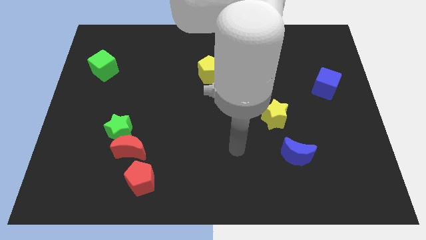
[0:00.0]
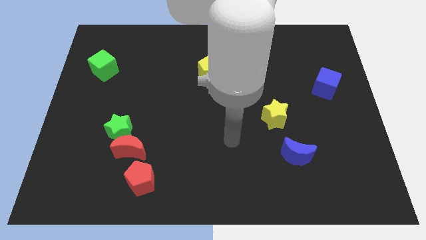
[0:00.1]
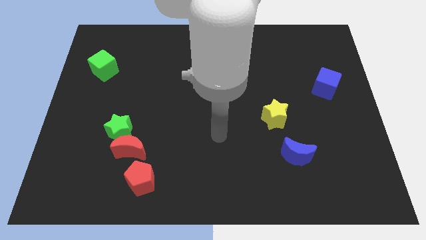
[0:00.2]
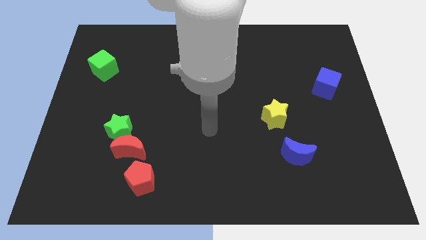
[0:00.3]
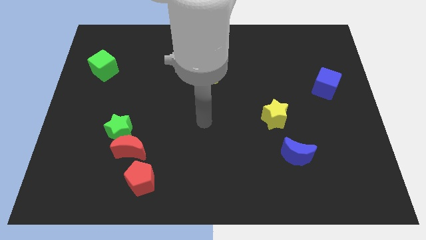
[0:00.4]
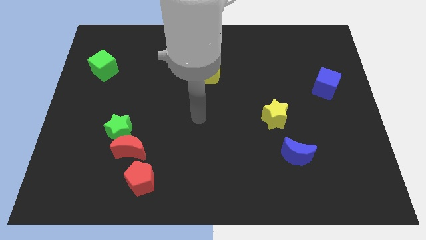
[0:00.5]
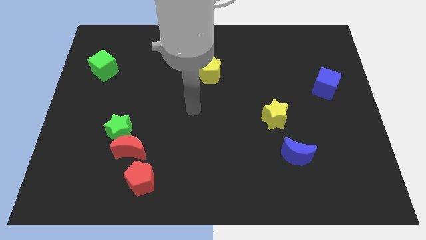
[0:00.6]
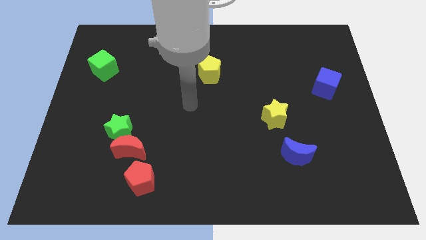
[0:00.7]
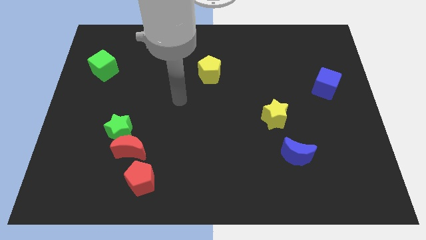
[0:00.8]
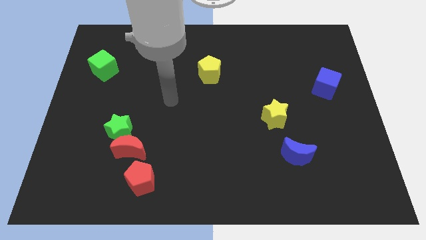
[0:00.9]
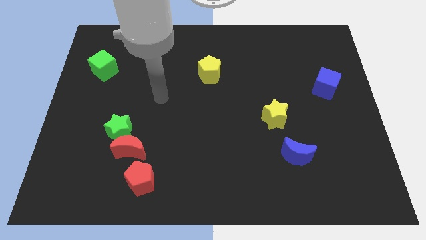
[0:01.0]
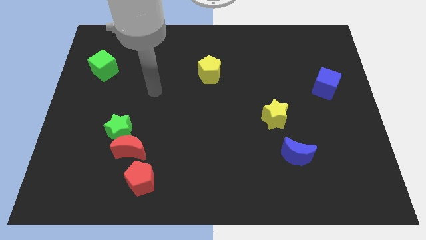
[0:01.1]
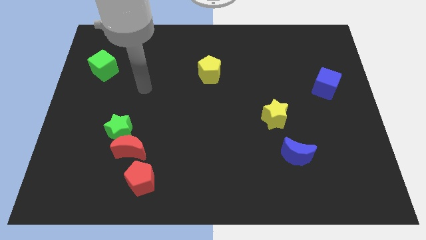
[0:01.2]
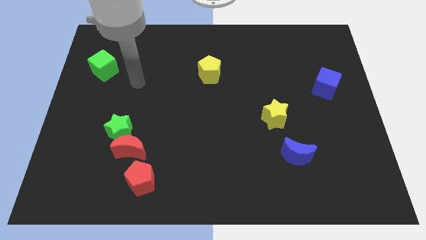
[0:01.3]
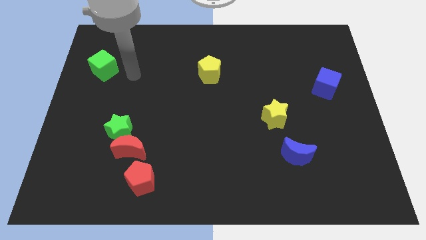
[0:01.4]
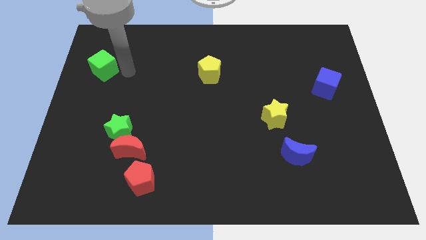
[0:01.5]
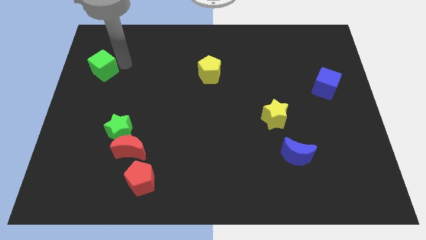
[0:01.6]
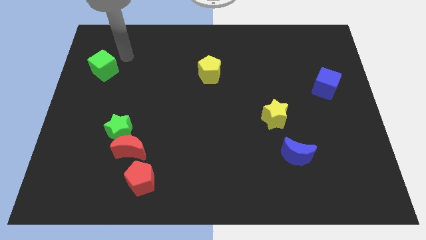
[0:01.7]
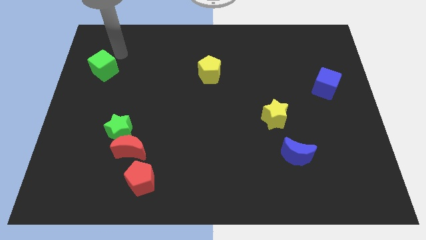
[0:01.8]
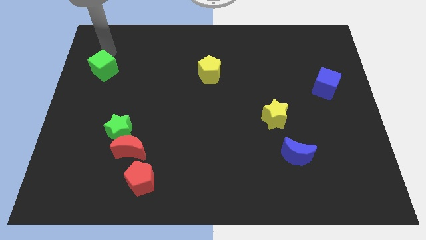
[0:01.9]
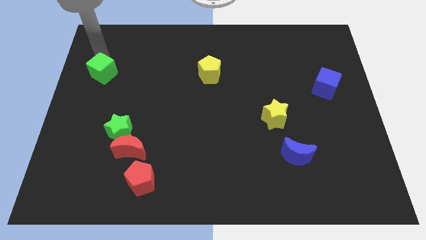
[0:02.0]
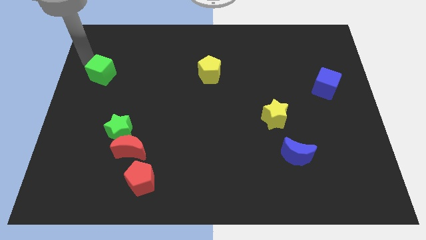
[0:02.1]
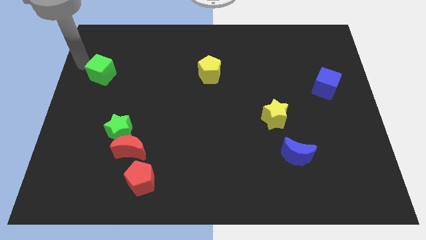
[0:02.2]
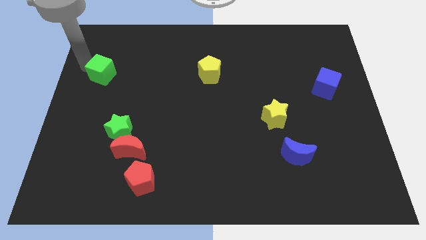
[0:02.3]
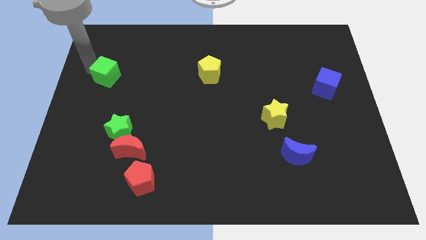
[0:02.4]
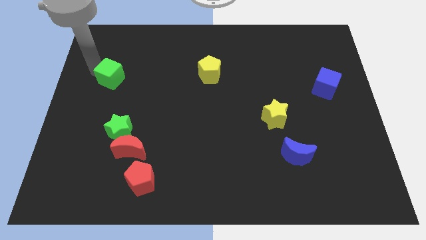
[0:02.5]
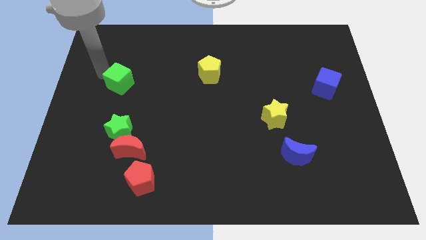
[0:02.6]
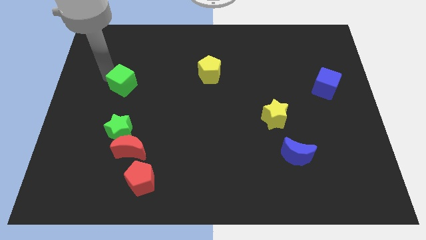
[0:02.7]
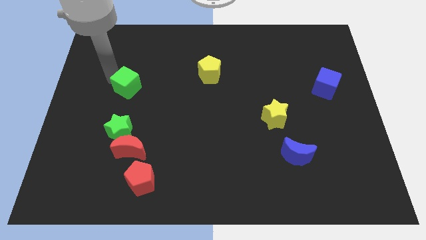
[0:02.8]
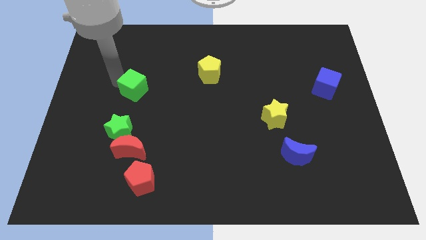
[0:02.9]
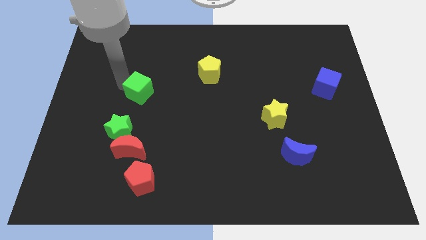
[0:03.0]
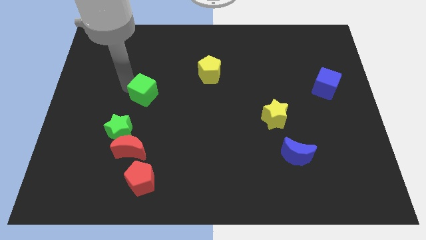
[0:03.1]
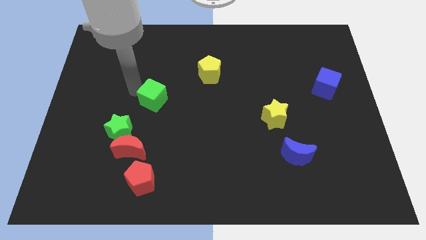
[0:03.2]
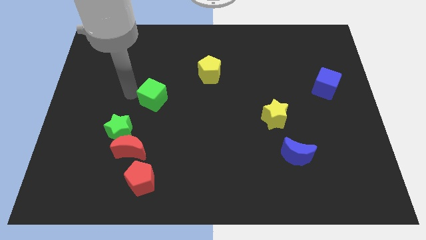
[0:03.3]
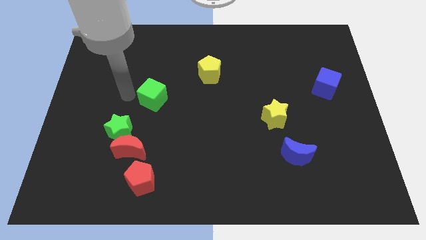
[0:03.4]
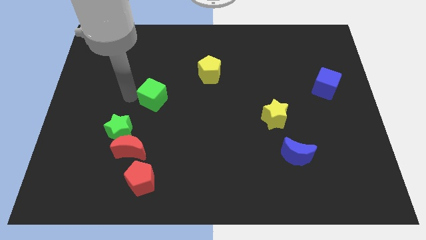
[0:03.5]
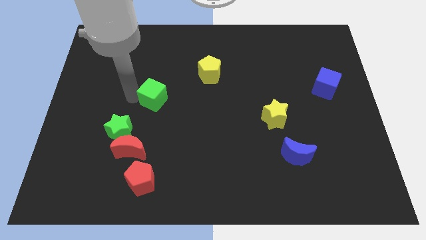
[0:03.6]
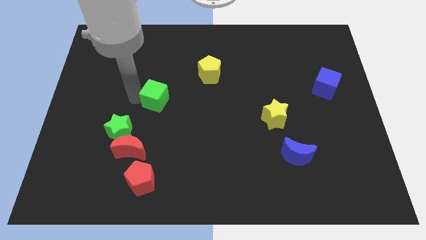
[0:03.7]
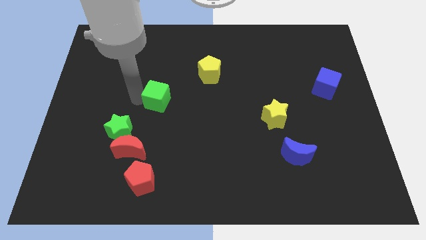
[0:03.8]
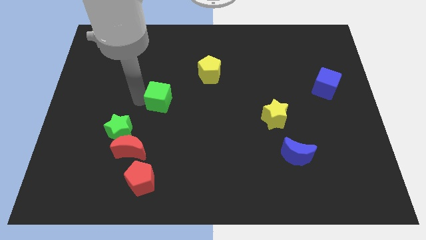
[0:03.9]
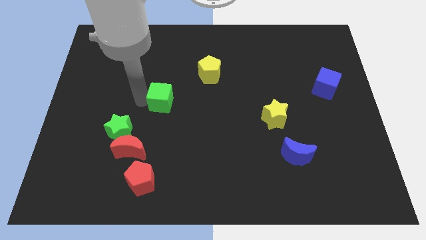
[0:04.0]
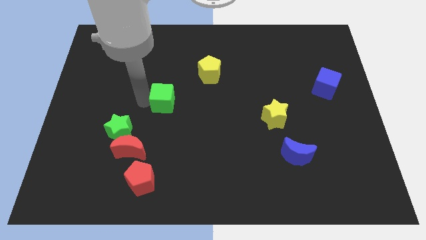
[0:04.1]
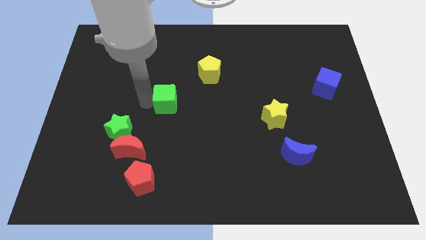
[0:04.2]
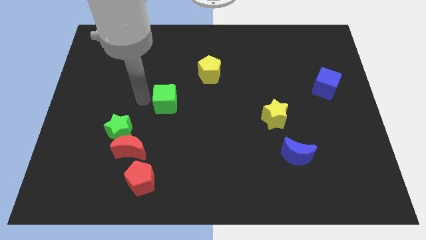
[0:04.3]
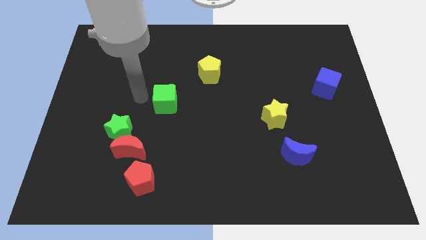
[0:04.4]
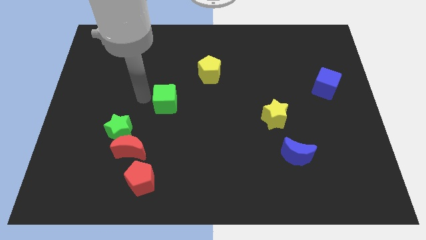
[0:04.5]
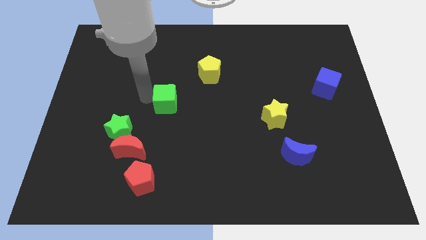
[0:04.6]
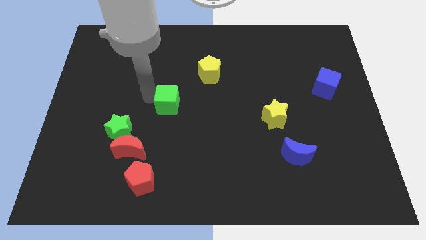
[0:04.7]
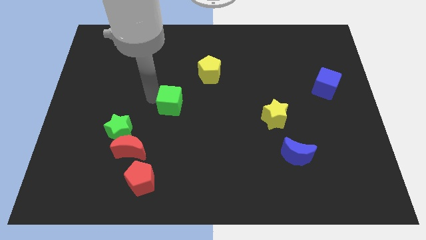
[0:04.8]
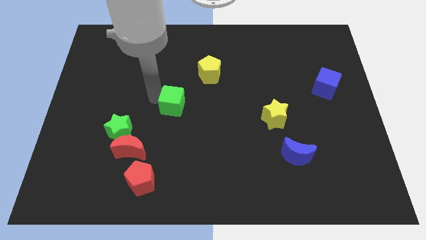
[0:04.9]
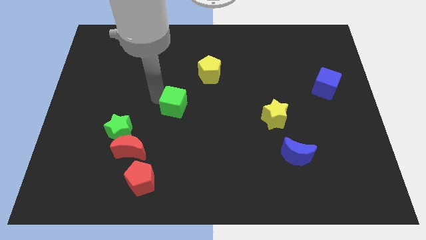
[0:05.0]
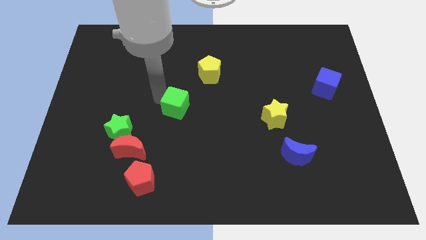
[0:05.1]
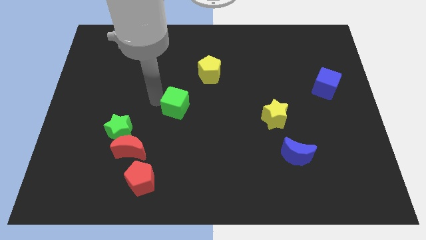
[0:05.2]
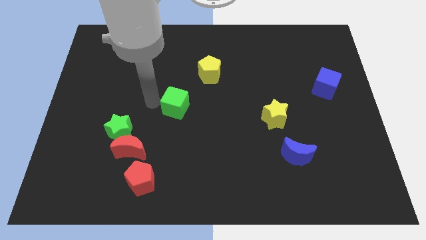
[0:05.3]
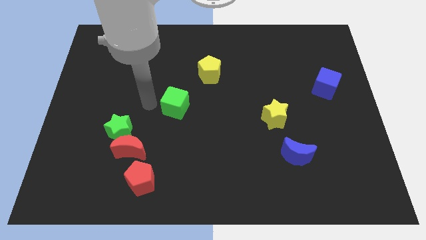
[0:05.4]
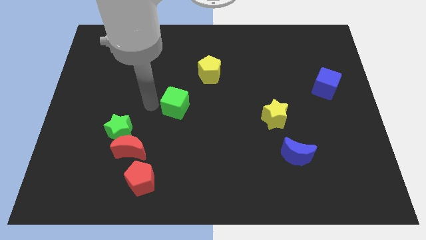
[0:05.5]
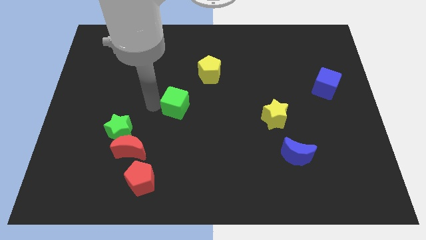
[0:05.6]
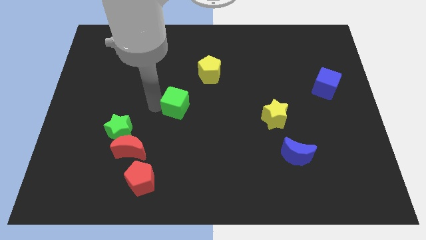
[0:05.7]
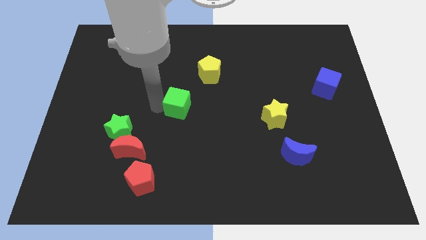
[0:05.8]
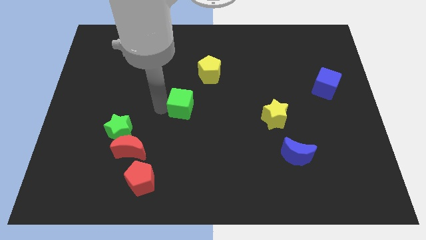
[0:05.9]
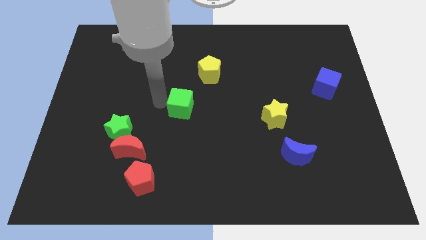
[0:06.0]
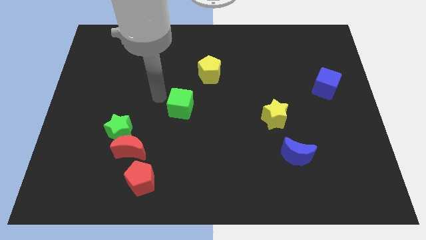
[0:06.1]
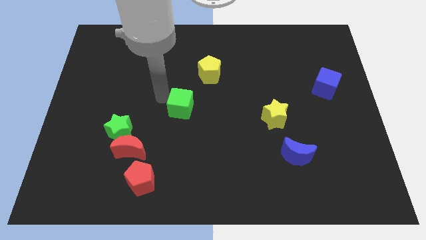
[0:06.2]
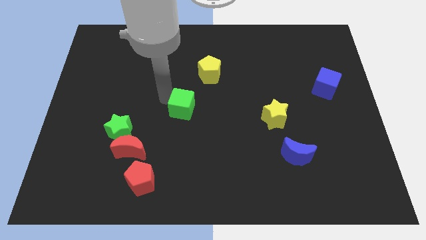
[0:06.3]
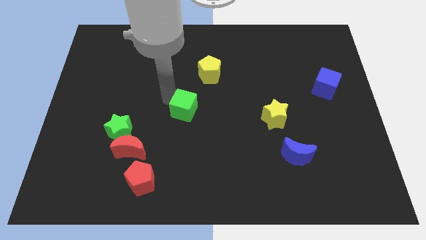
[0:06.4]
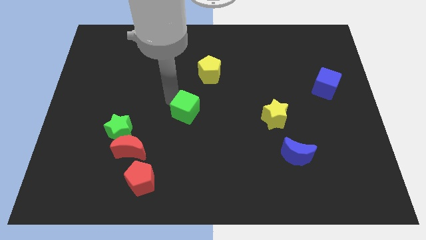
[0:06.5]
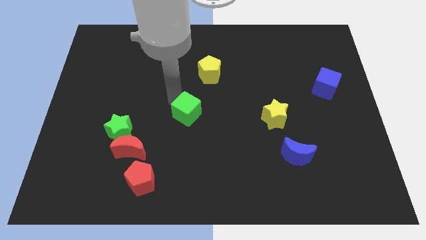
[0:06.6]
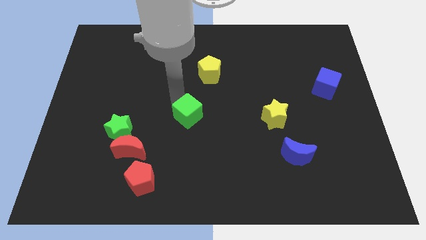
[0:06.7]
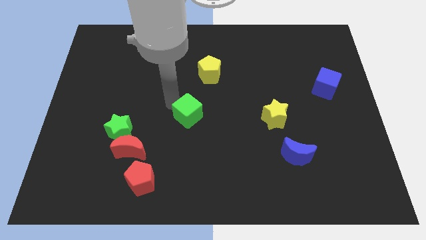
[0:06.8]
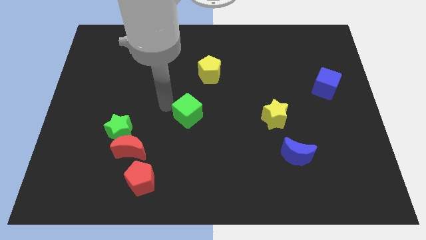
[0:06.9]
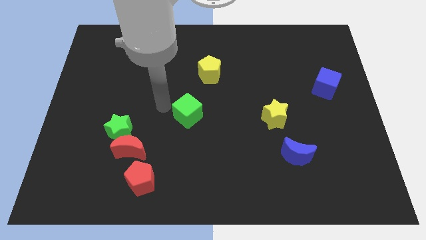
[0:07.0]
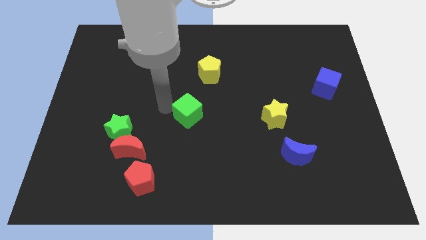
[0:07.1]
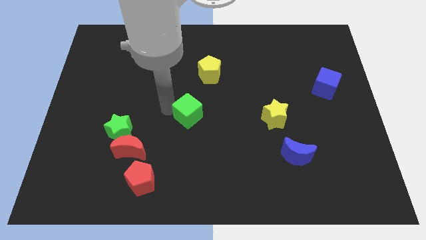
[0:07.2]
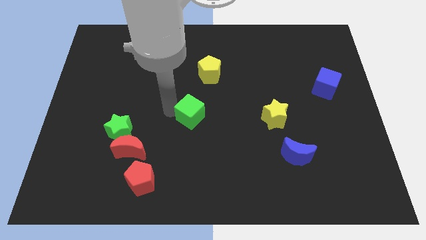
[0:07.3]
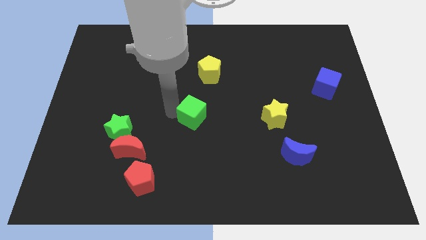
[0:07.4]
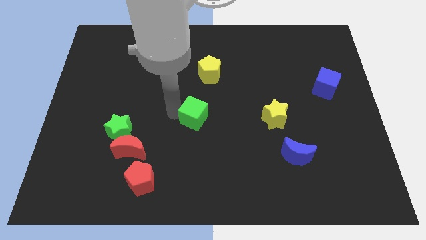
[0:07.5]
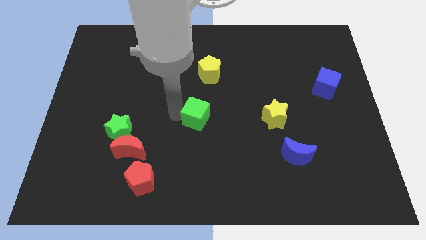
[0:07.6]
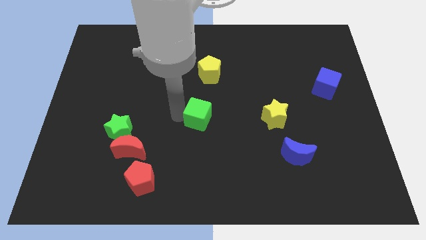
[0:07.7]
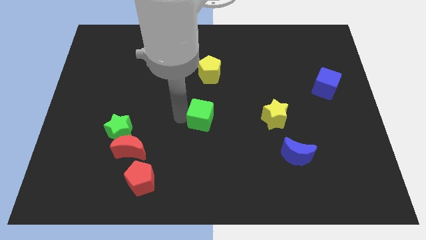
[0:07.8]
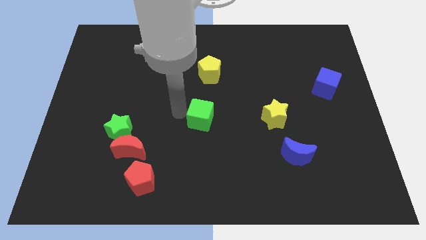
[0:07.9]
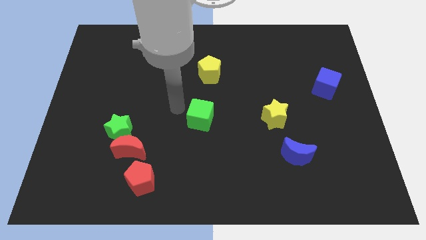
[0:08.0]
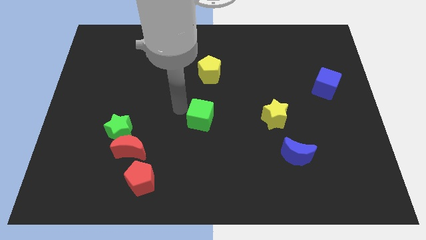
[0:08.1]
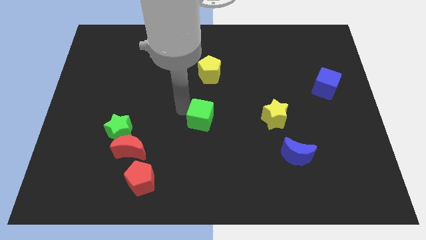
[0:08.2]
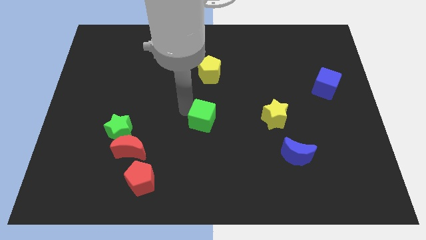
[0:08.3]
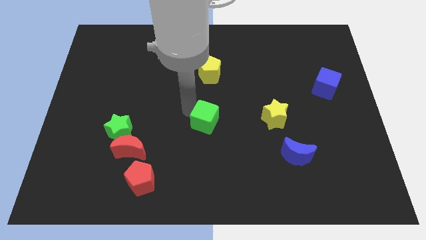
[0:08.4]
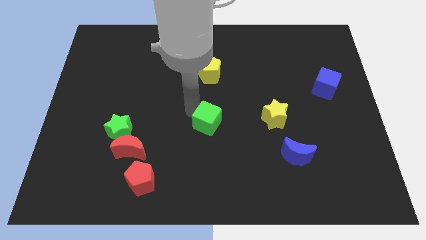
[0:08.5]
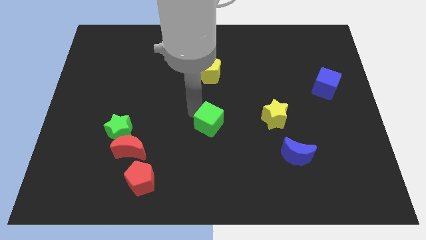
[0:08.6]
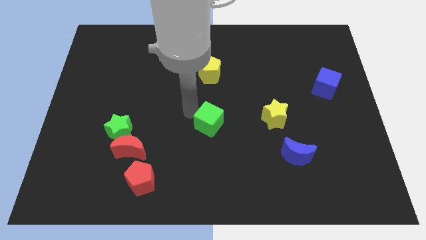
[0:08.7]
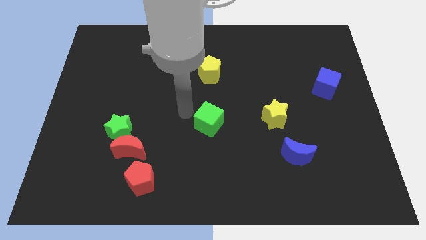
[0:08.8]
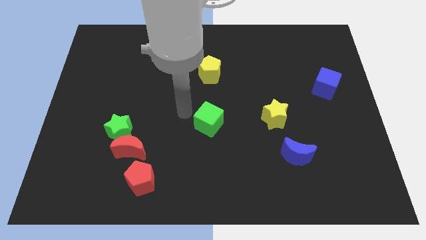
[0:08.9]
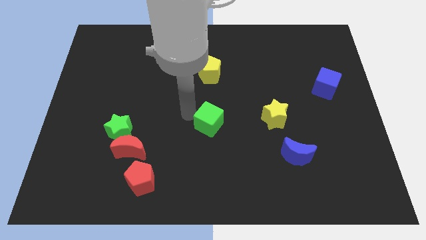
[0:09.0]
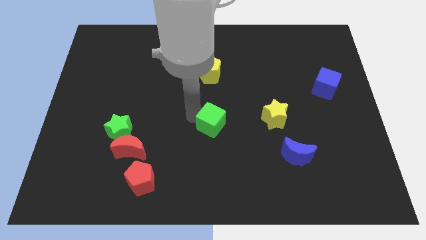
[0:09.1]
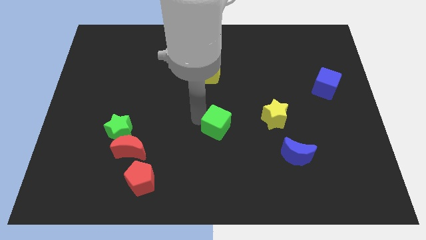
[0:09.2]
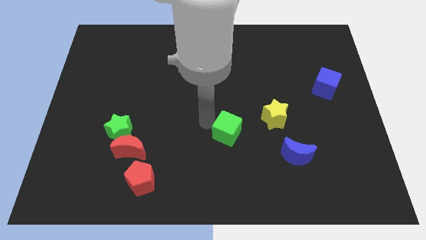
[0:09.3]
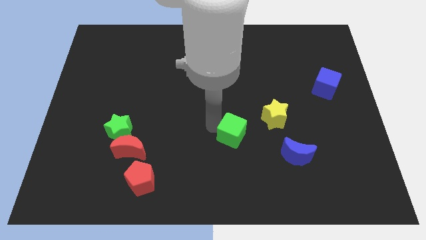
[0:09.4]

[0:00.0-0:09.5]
put the green cube to the bottom left side of the yellow star
